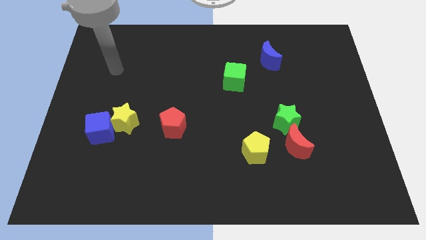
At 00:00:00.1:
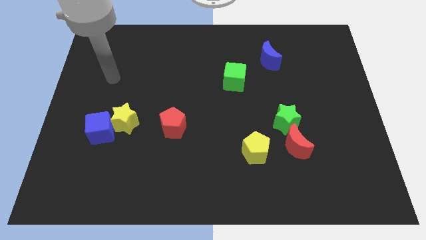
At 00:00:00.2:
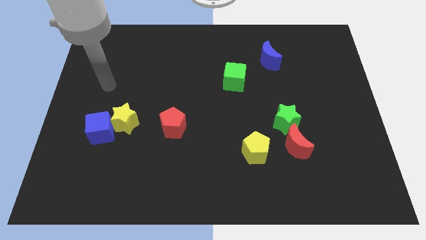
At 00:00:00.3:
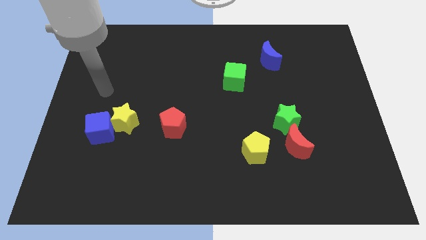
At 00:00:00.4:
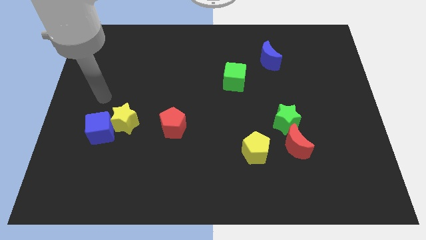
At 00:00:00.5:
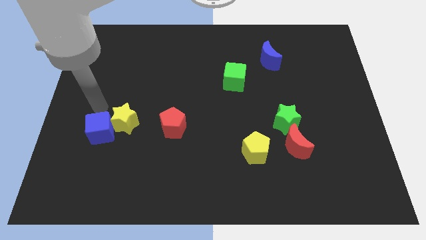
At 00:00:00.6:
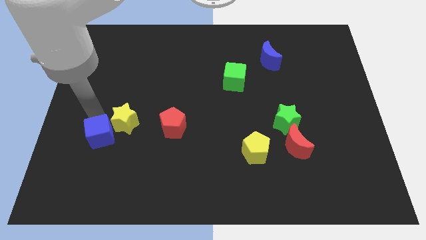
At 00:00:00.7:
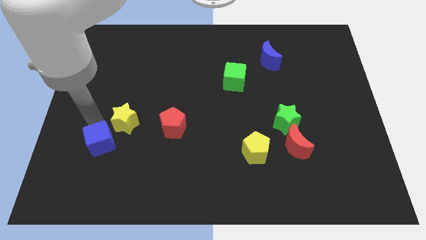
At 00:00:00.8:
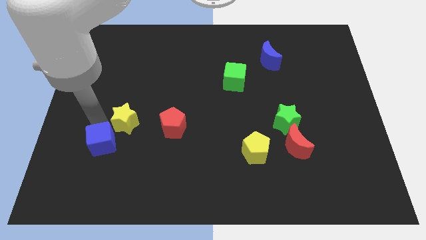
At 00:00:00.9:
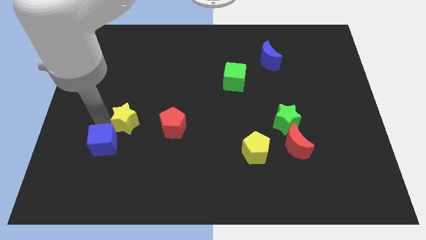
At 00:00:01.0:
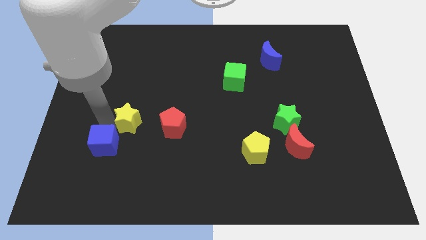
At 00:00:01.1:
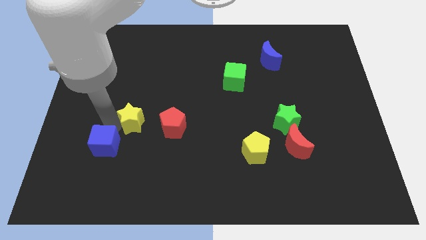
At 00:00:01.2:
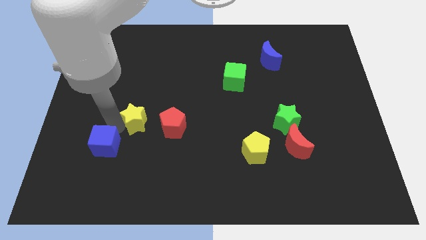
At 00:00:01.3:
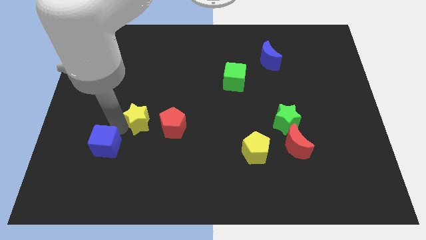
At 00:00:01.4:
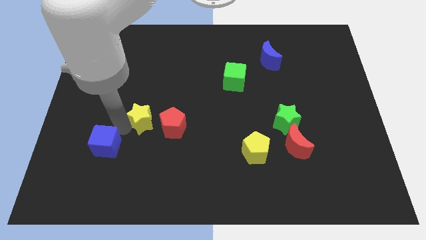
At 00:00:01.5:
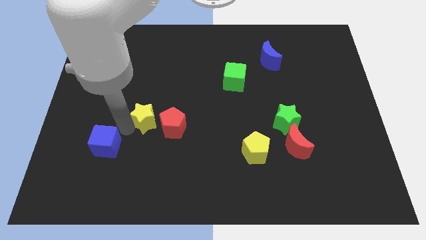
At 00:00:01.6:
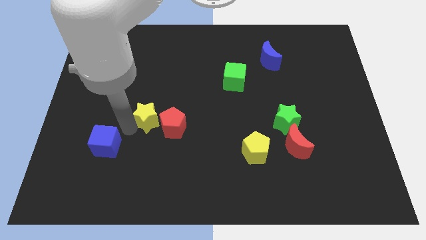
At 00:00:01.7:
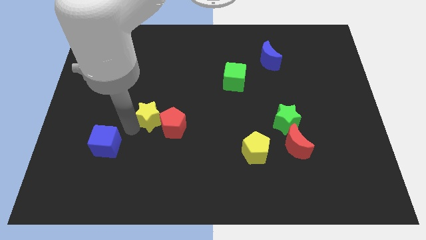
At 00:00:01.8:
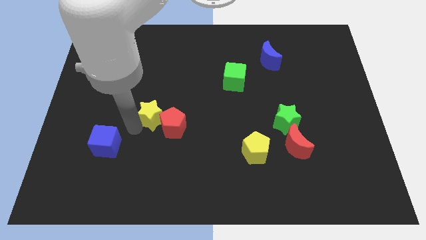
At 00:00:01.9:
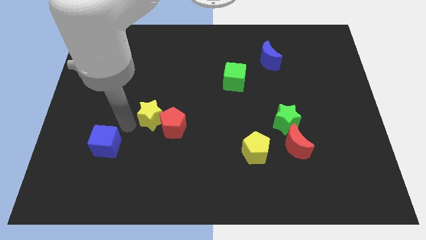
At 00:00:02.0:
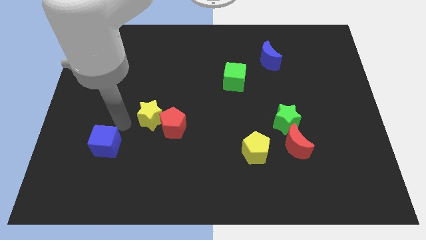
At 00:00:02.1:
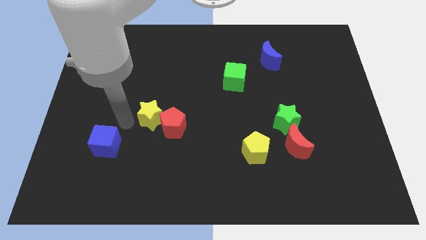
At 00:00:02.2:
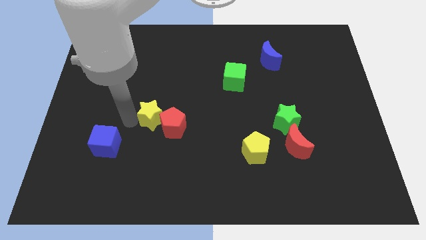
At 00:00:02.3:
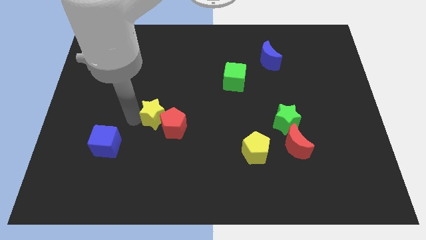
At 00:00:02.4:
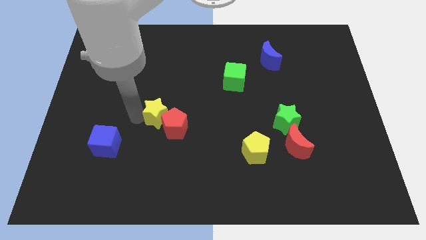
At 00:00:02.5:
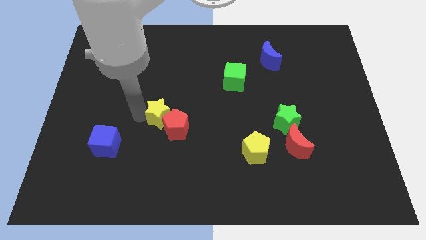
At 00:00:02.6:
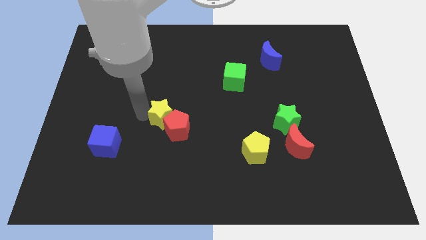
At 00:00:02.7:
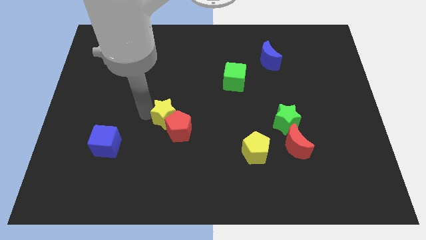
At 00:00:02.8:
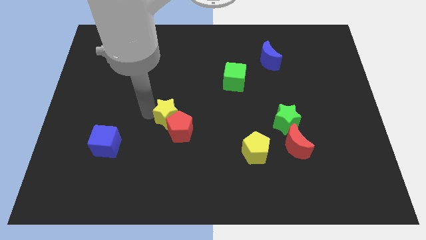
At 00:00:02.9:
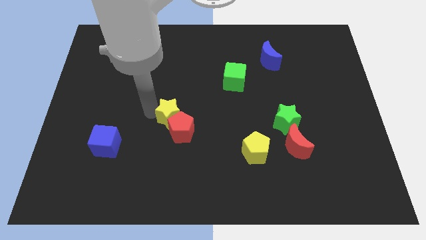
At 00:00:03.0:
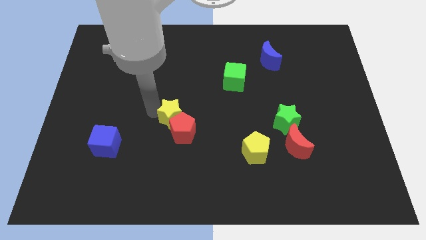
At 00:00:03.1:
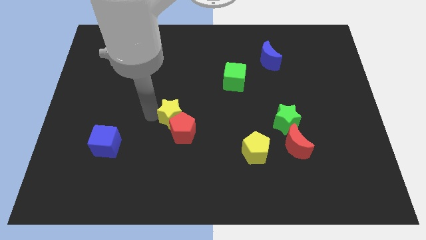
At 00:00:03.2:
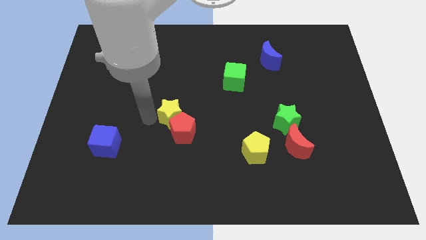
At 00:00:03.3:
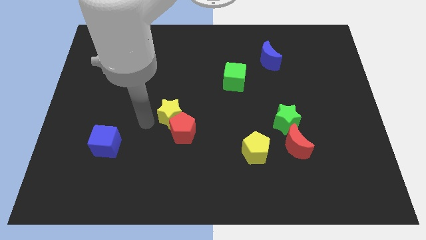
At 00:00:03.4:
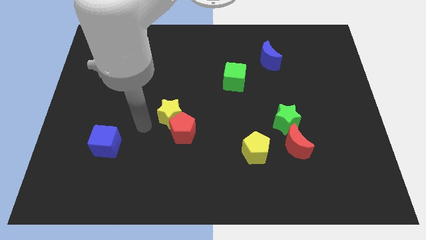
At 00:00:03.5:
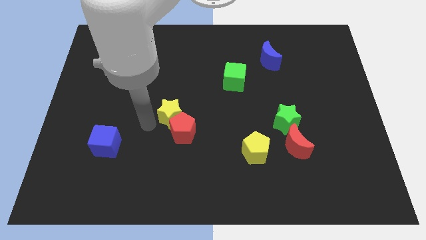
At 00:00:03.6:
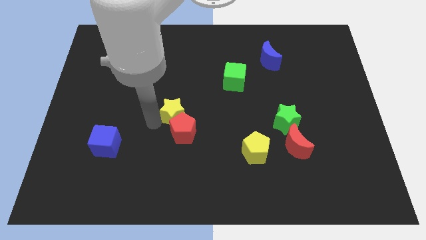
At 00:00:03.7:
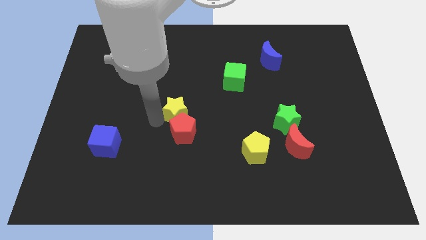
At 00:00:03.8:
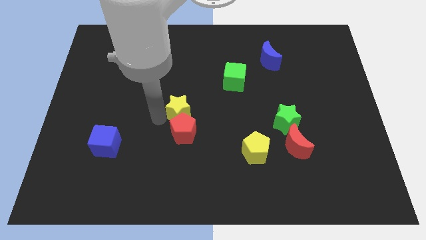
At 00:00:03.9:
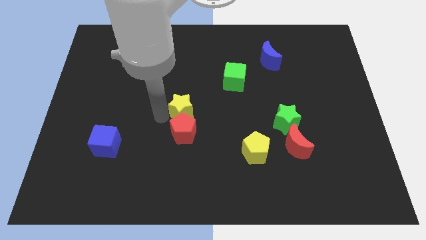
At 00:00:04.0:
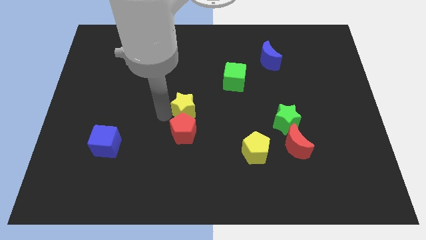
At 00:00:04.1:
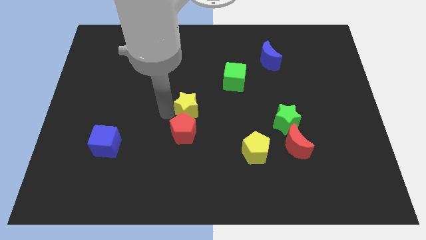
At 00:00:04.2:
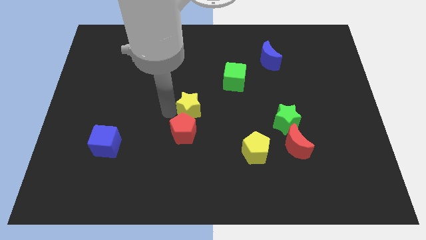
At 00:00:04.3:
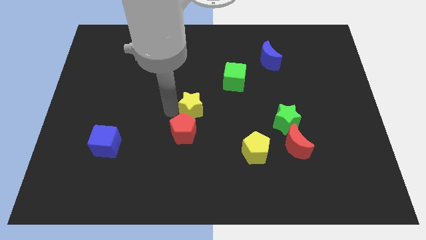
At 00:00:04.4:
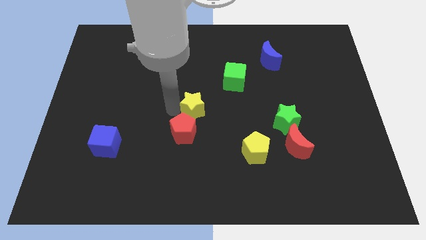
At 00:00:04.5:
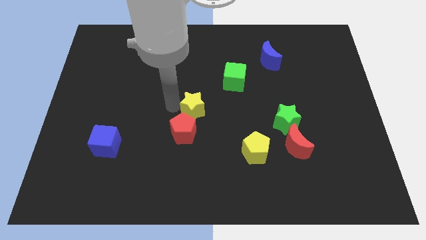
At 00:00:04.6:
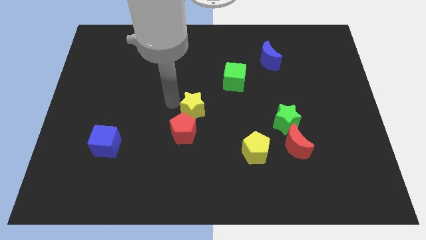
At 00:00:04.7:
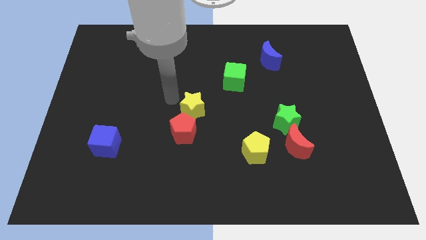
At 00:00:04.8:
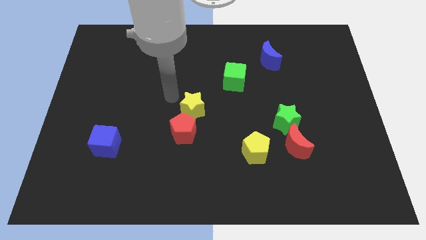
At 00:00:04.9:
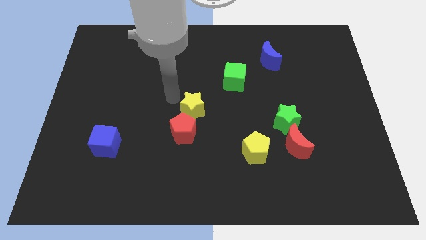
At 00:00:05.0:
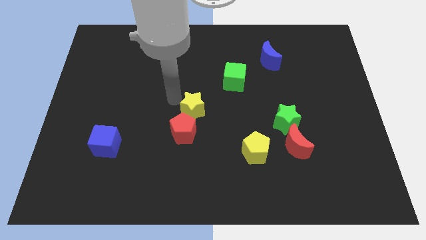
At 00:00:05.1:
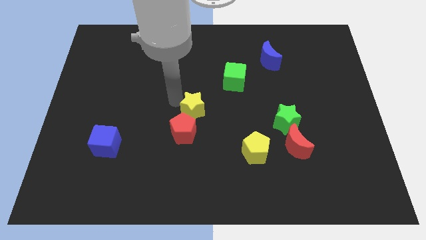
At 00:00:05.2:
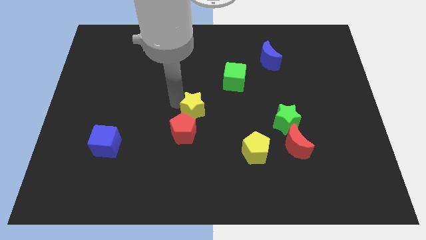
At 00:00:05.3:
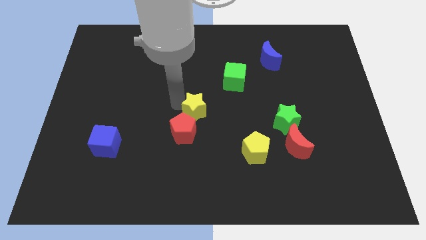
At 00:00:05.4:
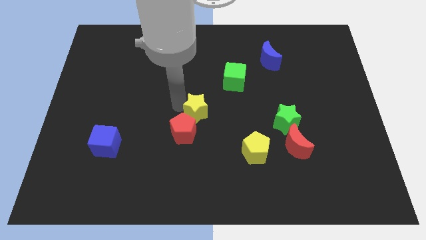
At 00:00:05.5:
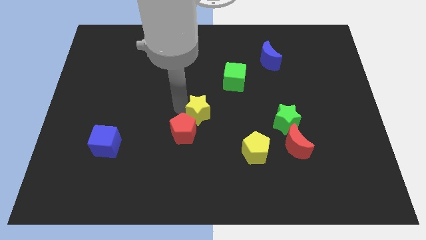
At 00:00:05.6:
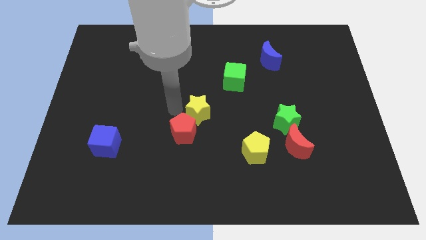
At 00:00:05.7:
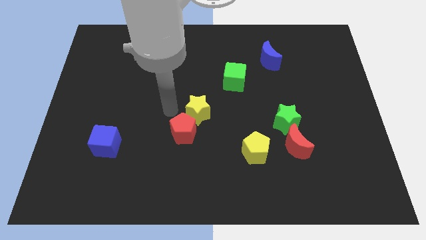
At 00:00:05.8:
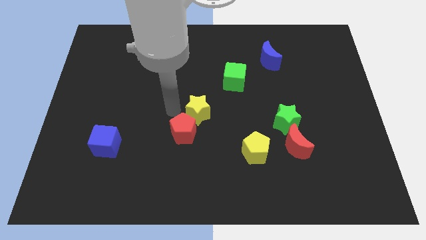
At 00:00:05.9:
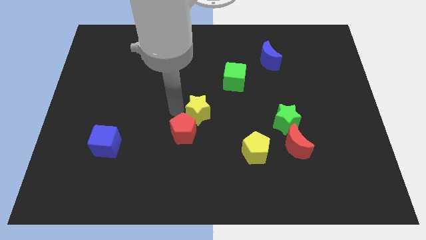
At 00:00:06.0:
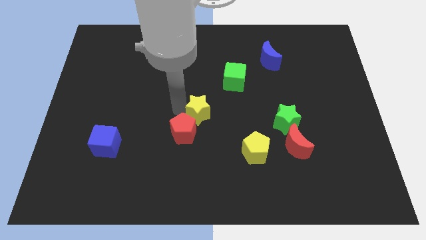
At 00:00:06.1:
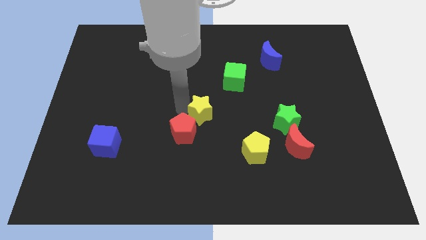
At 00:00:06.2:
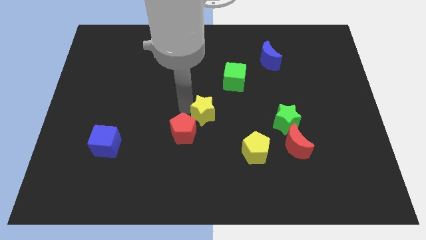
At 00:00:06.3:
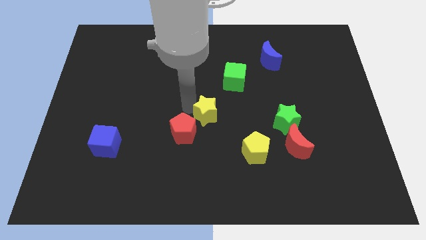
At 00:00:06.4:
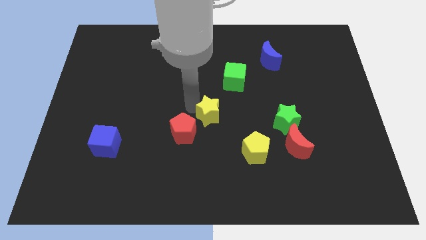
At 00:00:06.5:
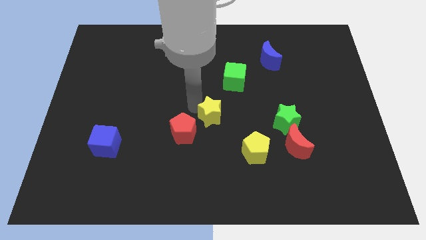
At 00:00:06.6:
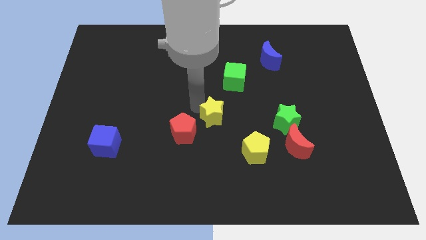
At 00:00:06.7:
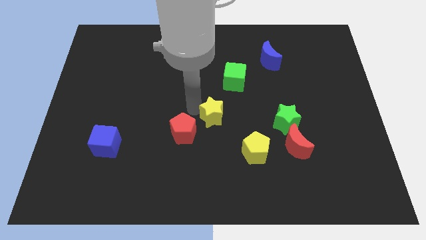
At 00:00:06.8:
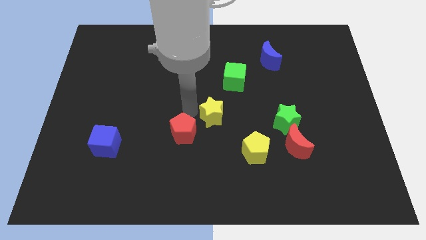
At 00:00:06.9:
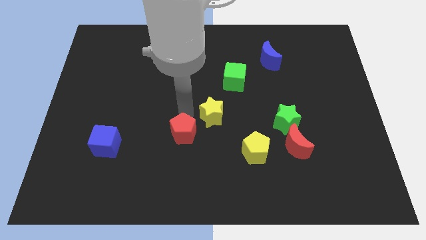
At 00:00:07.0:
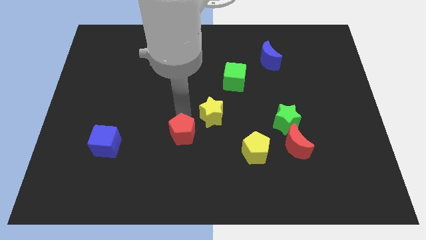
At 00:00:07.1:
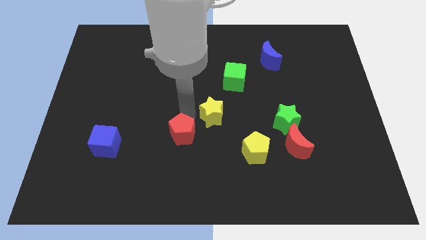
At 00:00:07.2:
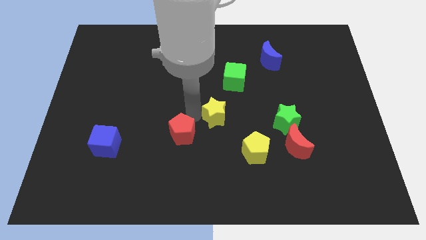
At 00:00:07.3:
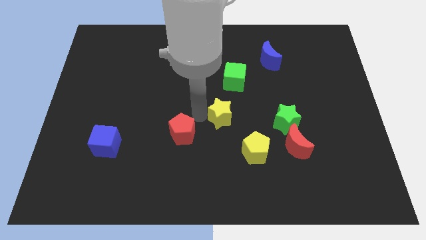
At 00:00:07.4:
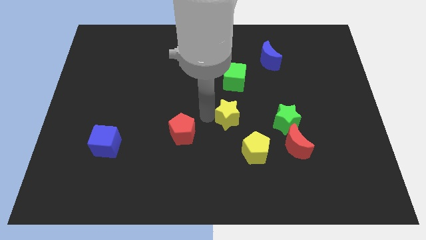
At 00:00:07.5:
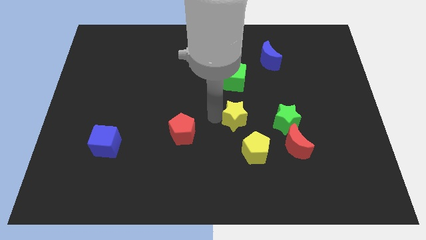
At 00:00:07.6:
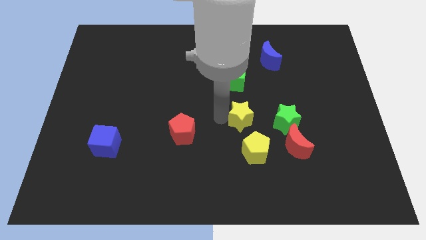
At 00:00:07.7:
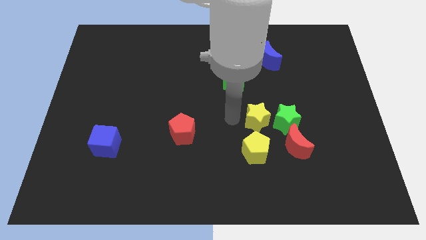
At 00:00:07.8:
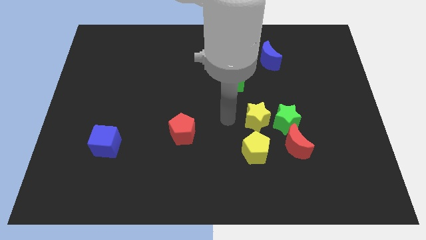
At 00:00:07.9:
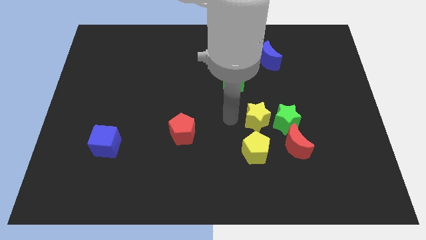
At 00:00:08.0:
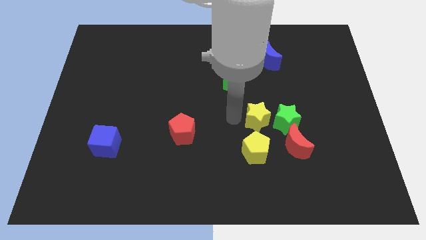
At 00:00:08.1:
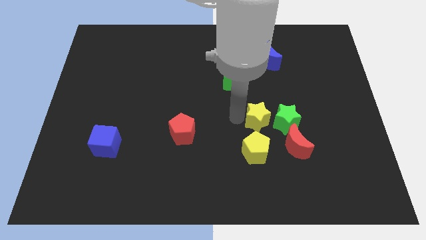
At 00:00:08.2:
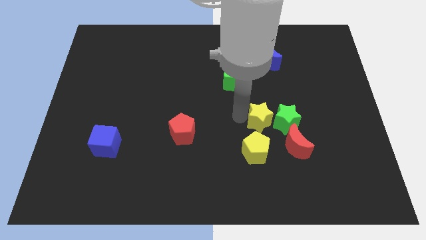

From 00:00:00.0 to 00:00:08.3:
push the yellow star towards the green star
